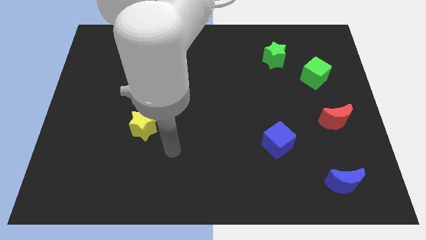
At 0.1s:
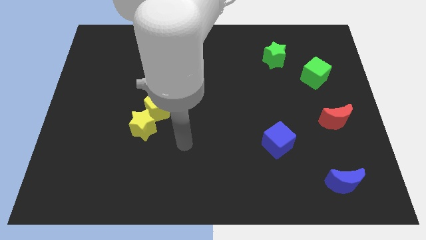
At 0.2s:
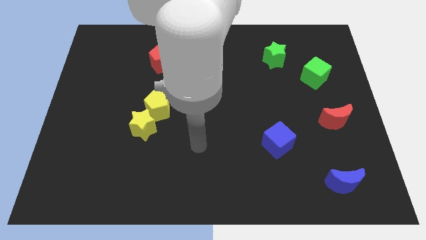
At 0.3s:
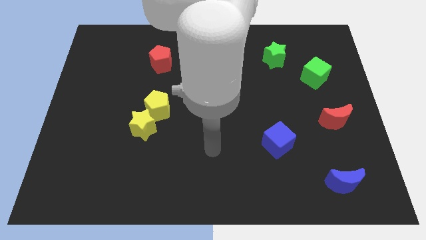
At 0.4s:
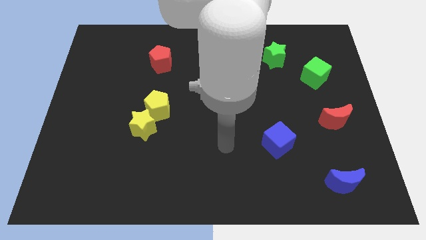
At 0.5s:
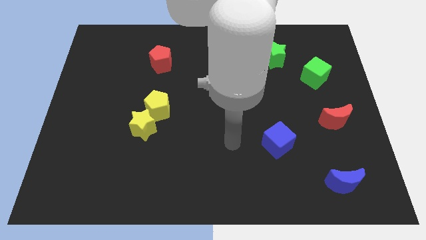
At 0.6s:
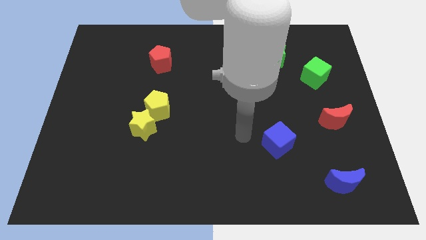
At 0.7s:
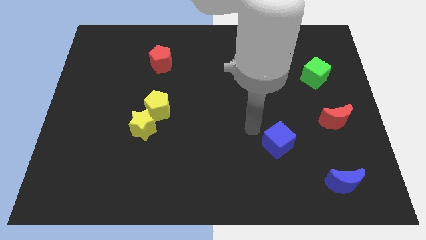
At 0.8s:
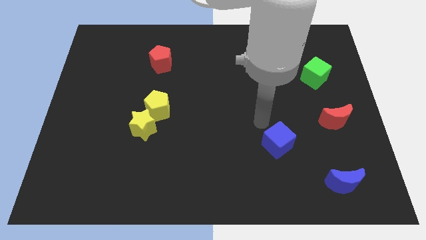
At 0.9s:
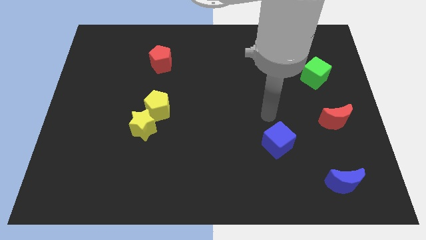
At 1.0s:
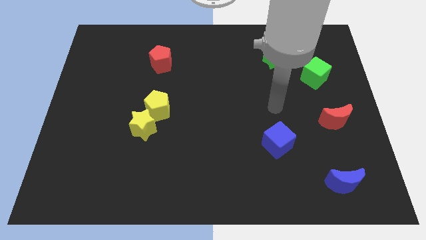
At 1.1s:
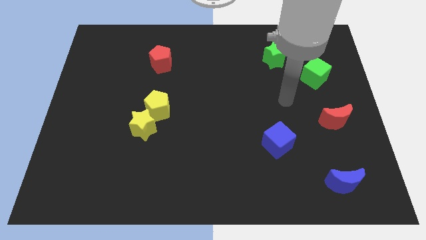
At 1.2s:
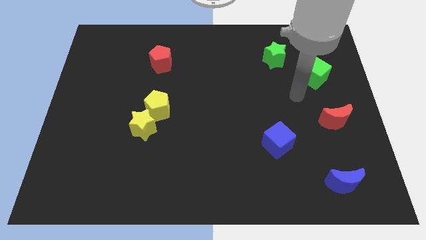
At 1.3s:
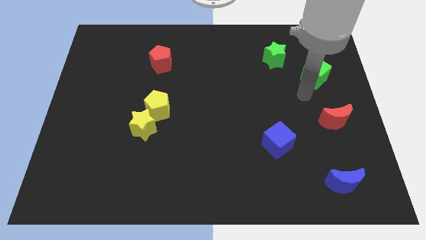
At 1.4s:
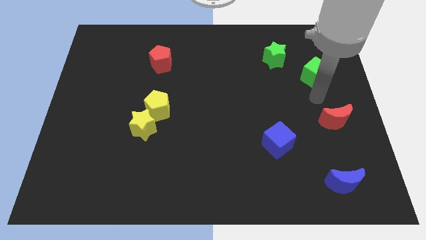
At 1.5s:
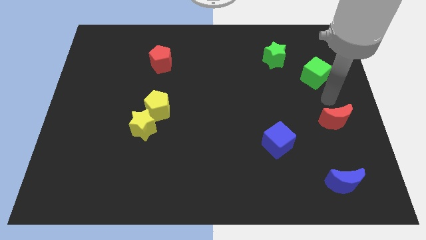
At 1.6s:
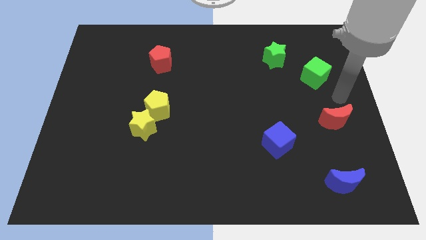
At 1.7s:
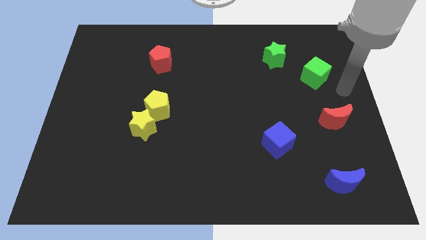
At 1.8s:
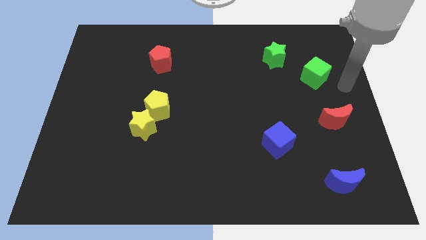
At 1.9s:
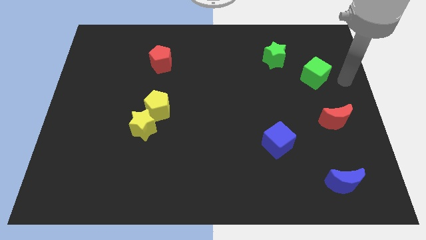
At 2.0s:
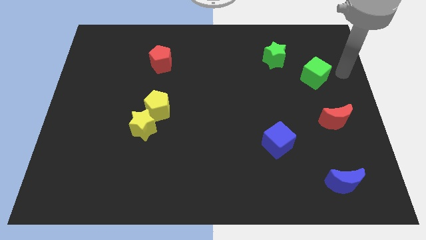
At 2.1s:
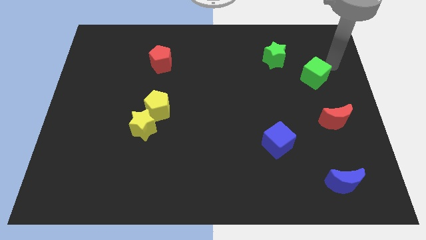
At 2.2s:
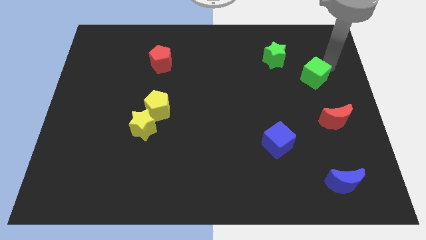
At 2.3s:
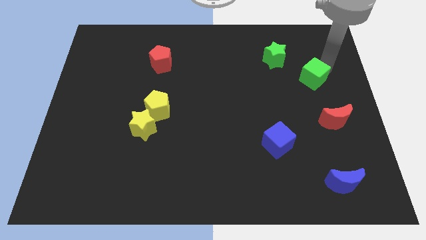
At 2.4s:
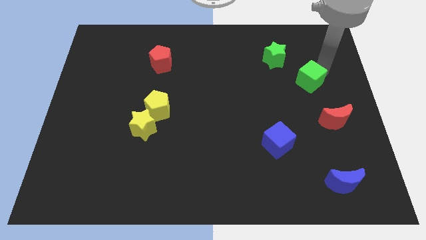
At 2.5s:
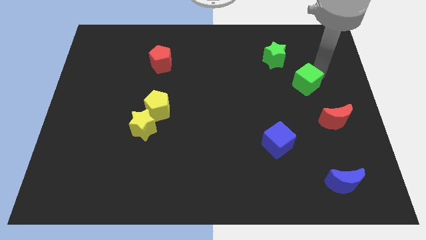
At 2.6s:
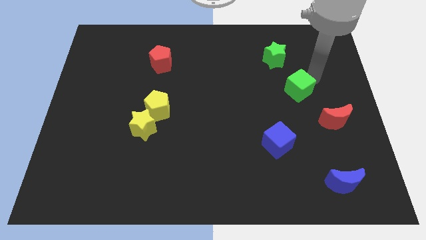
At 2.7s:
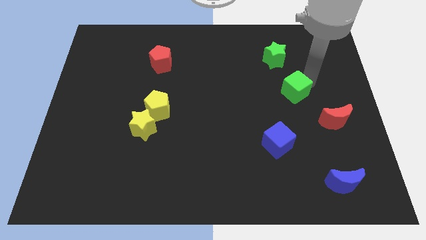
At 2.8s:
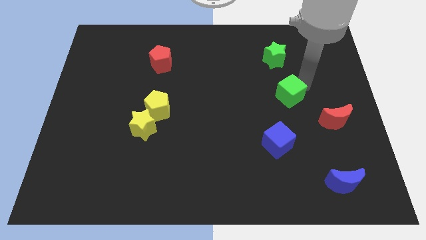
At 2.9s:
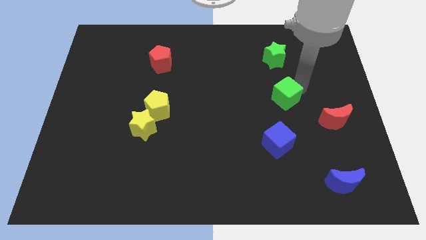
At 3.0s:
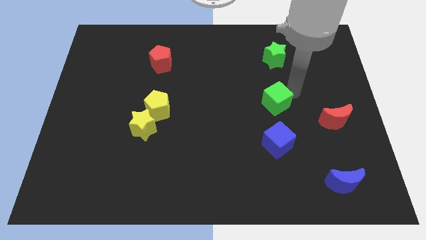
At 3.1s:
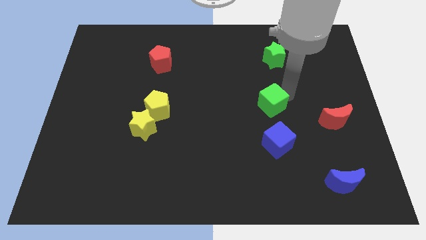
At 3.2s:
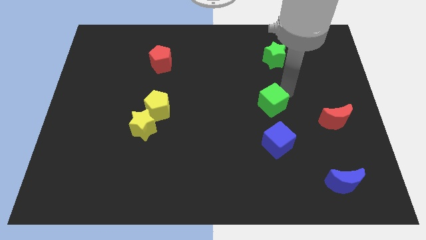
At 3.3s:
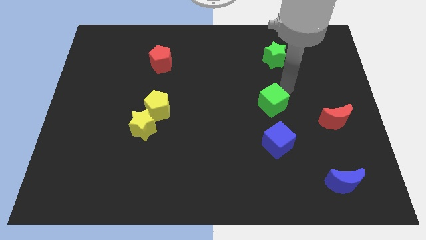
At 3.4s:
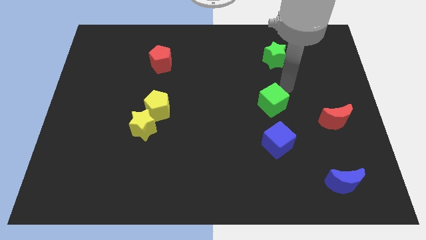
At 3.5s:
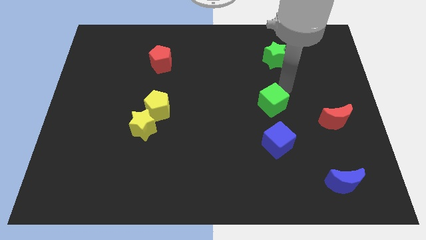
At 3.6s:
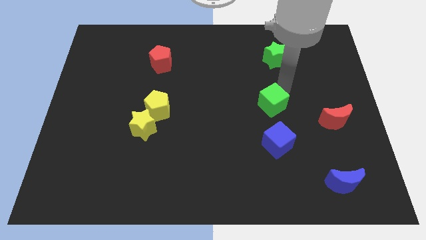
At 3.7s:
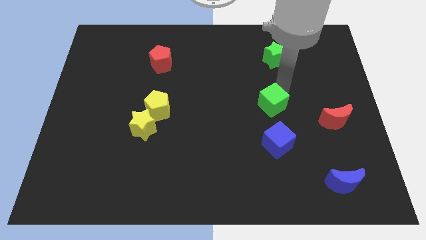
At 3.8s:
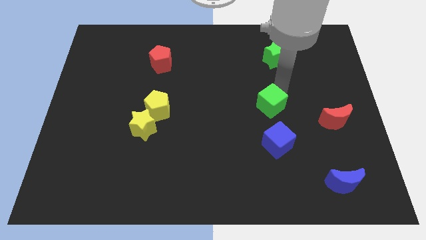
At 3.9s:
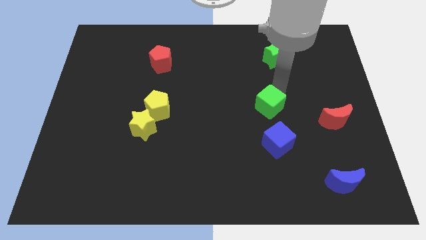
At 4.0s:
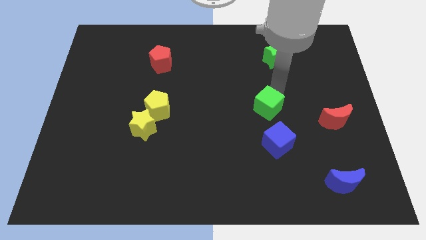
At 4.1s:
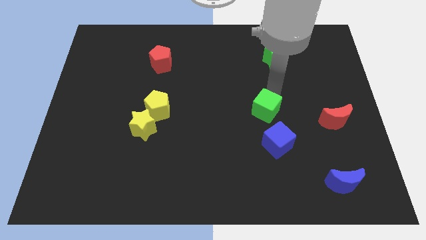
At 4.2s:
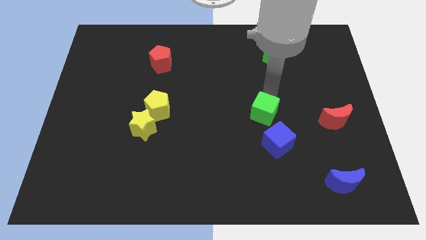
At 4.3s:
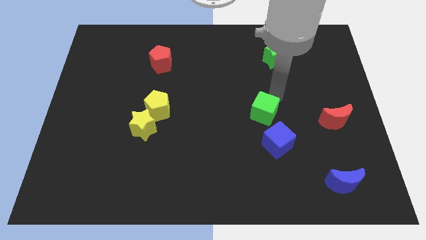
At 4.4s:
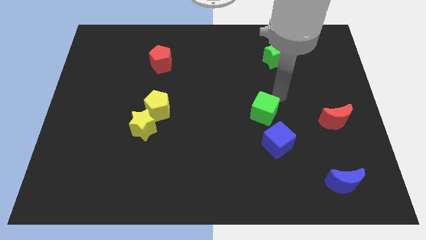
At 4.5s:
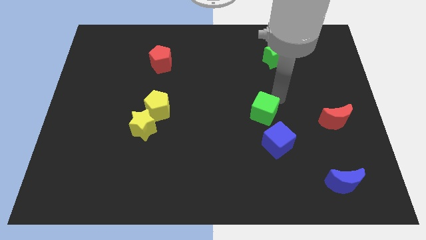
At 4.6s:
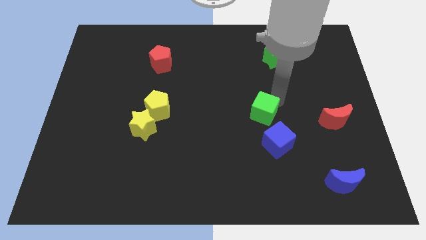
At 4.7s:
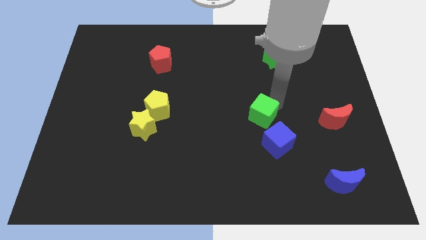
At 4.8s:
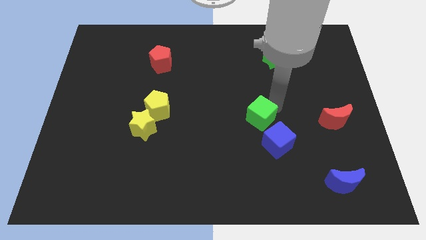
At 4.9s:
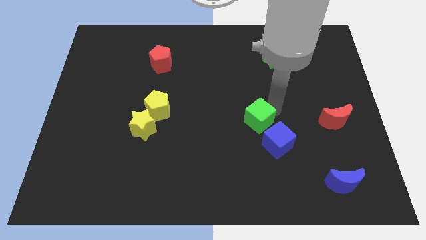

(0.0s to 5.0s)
move the green cube down and to the left diagonally

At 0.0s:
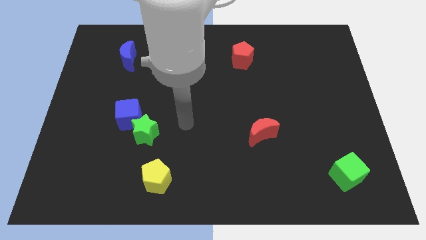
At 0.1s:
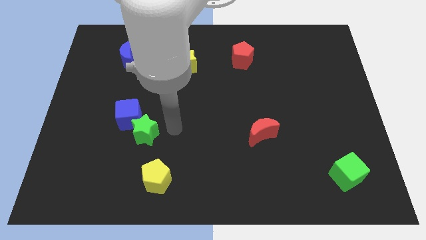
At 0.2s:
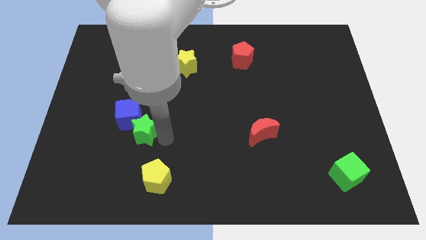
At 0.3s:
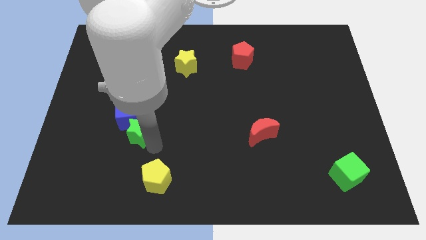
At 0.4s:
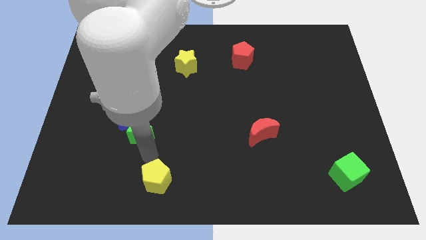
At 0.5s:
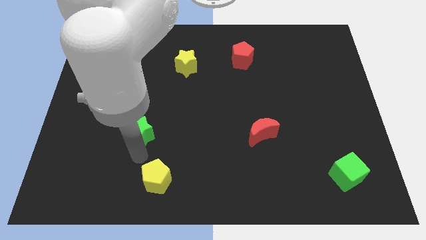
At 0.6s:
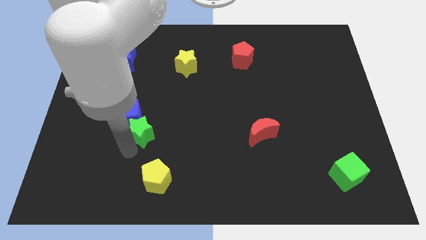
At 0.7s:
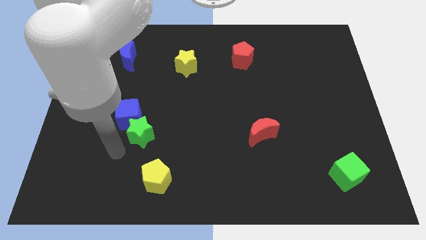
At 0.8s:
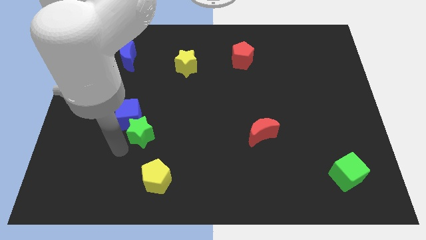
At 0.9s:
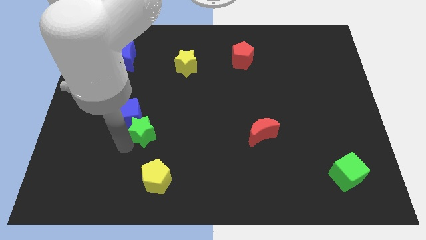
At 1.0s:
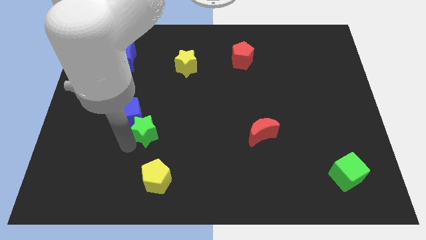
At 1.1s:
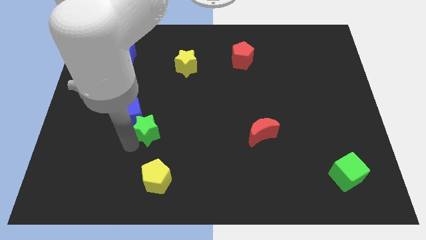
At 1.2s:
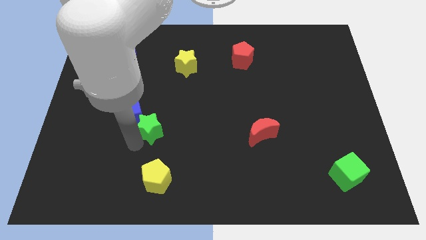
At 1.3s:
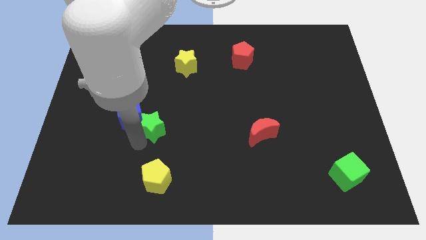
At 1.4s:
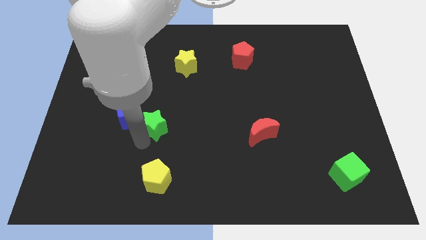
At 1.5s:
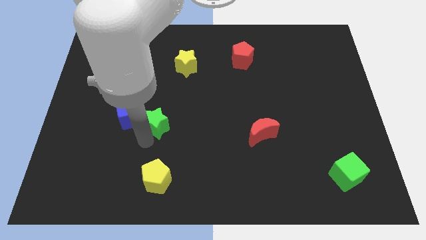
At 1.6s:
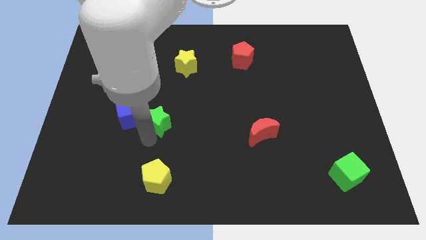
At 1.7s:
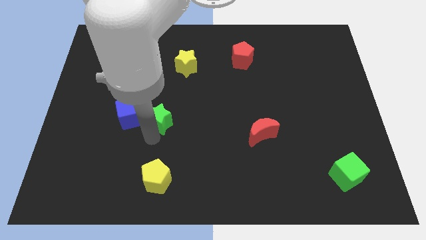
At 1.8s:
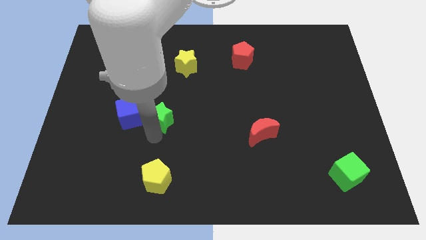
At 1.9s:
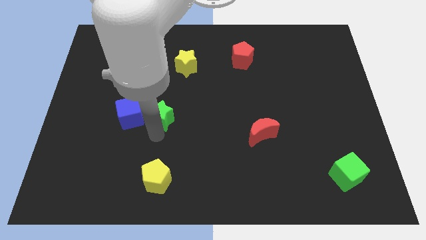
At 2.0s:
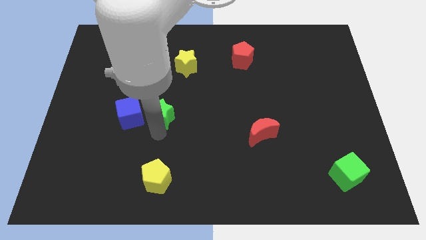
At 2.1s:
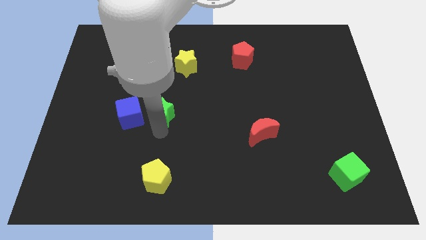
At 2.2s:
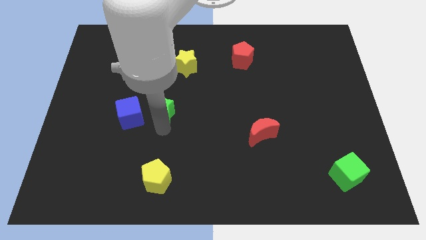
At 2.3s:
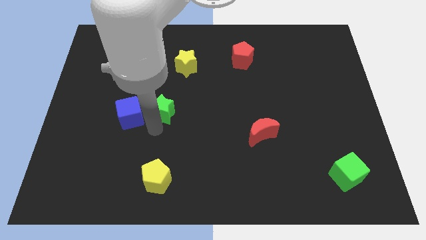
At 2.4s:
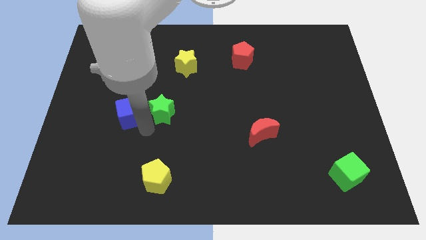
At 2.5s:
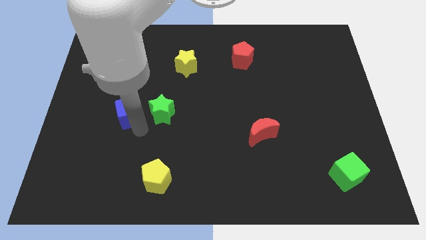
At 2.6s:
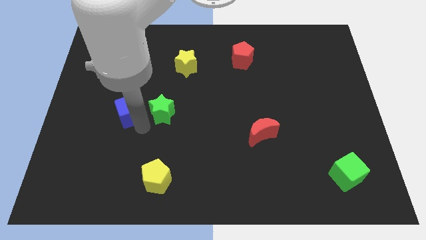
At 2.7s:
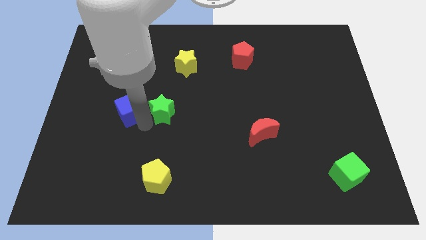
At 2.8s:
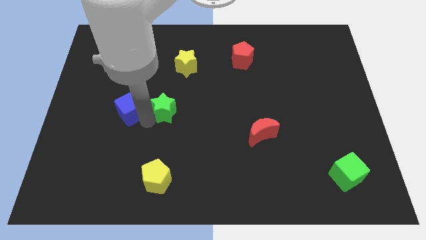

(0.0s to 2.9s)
slightly push the green star upwards and to the right diagonally

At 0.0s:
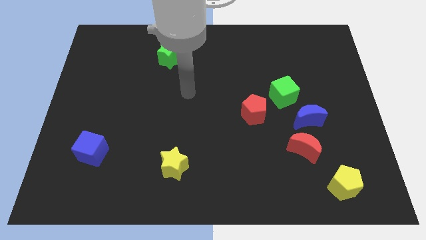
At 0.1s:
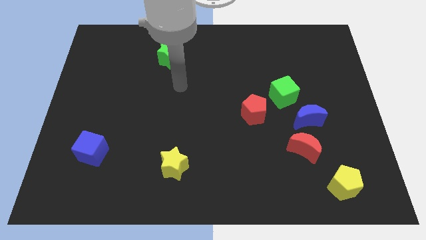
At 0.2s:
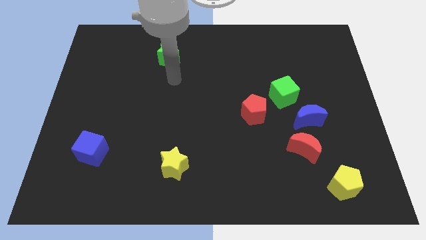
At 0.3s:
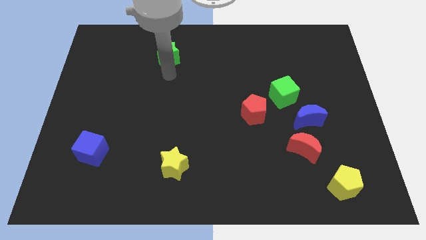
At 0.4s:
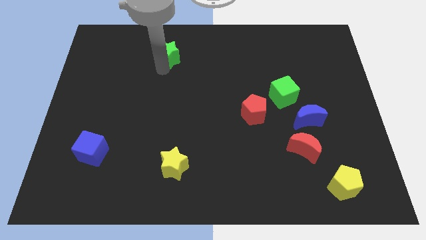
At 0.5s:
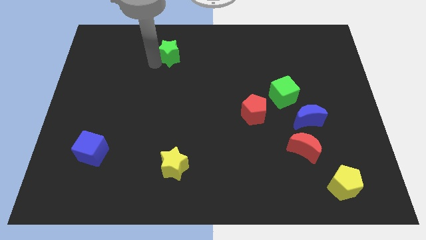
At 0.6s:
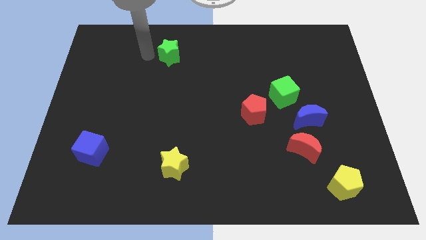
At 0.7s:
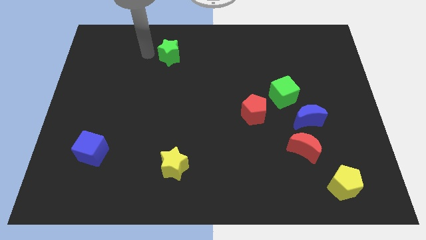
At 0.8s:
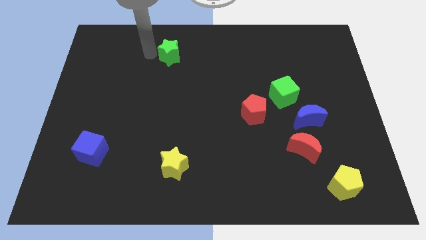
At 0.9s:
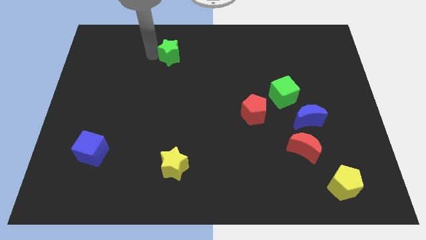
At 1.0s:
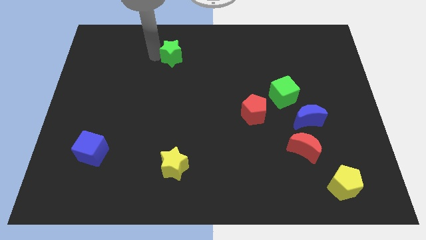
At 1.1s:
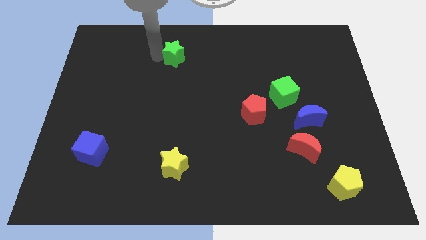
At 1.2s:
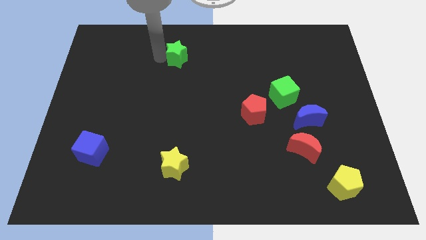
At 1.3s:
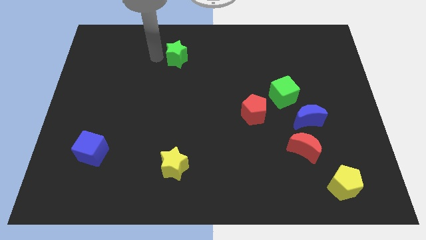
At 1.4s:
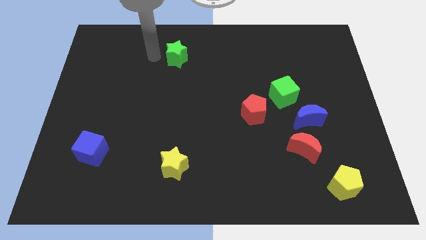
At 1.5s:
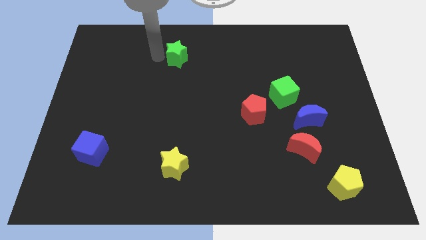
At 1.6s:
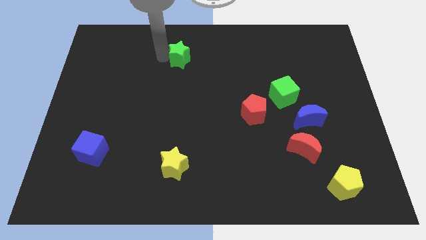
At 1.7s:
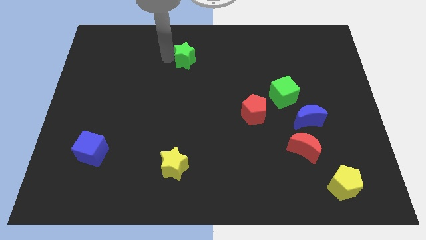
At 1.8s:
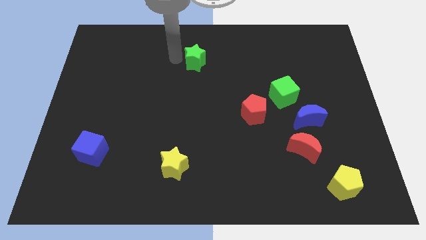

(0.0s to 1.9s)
slide the green star to the right somewhat
